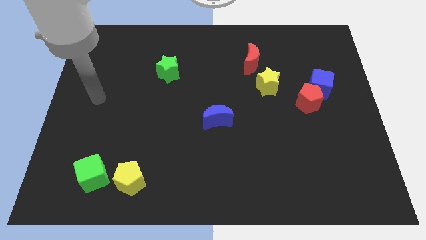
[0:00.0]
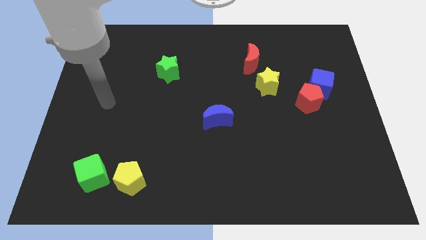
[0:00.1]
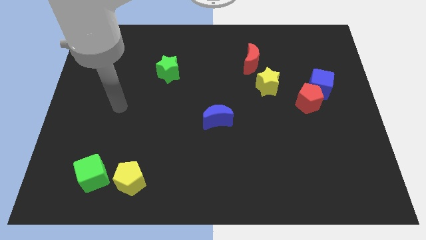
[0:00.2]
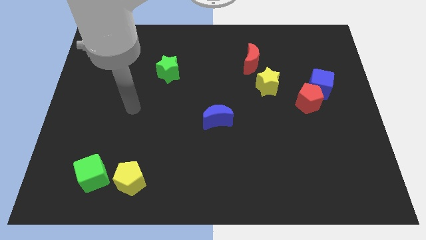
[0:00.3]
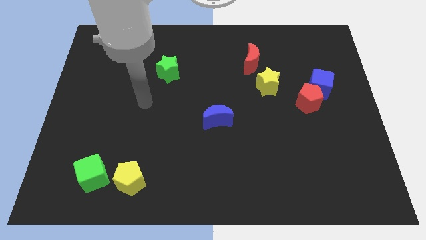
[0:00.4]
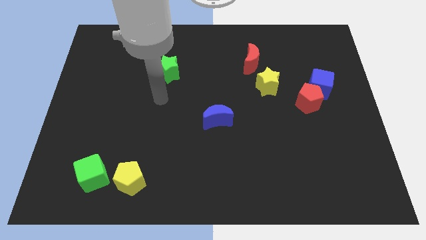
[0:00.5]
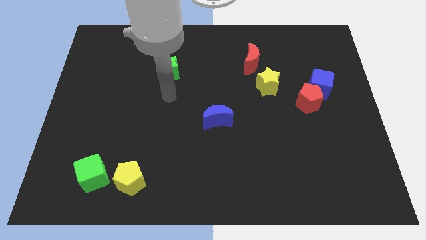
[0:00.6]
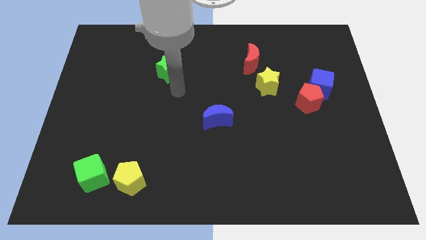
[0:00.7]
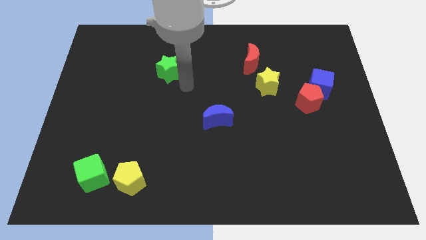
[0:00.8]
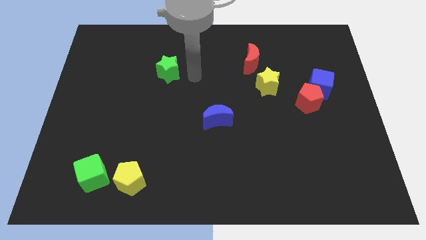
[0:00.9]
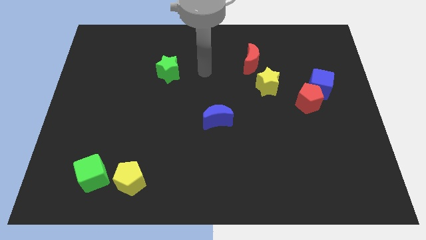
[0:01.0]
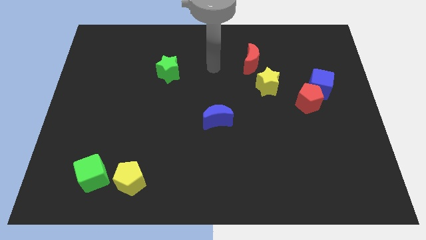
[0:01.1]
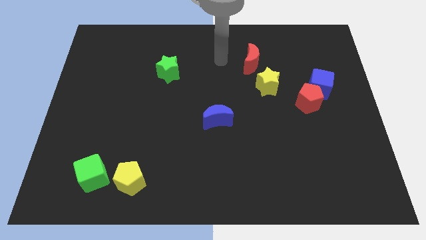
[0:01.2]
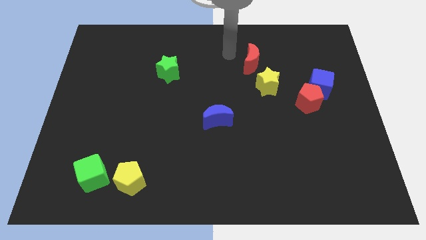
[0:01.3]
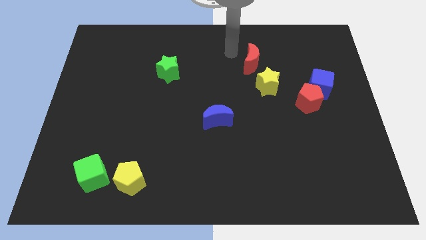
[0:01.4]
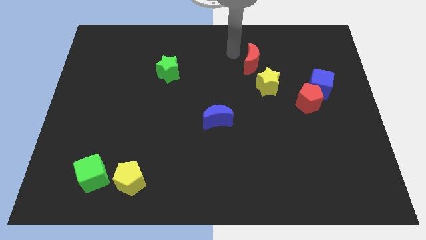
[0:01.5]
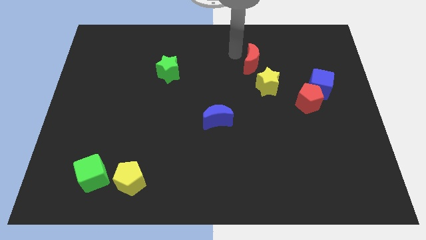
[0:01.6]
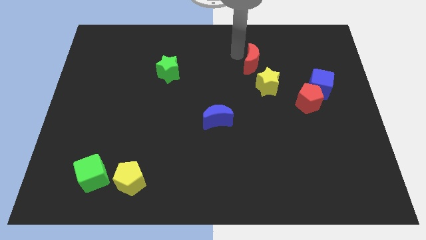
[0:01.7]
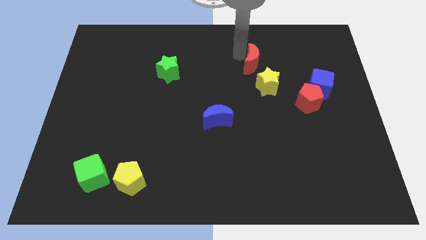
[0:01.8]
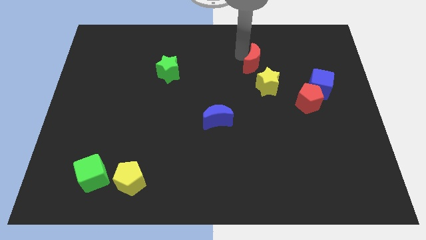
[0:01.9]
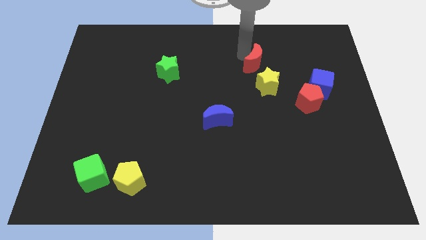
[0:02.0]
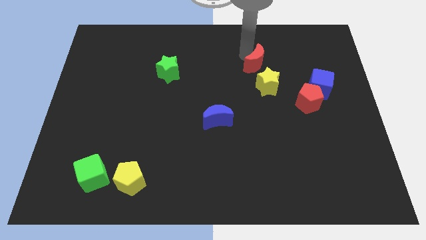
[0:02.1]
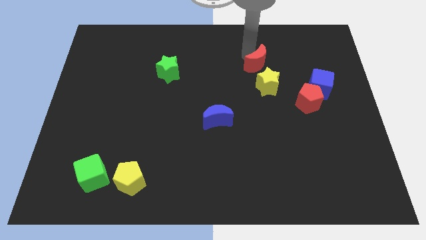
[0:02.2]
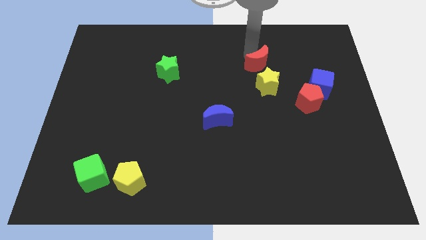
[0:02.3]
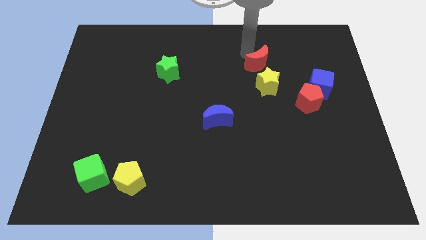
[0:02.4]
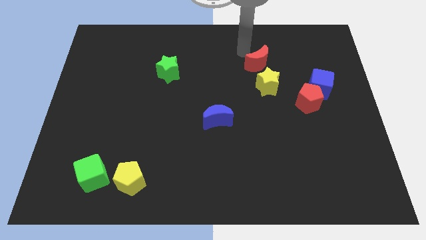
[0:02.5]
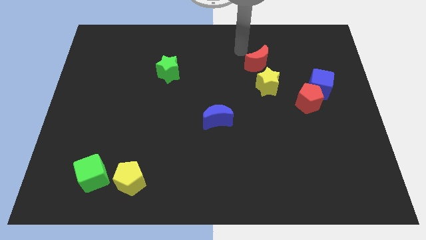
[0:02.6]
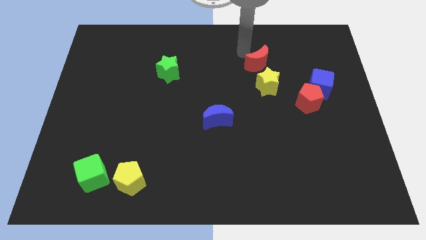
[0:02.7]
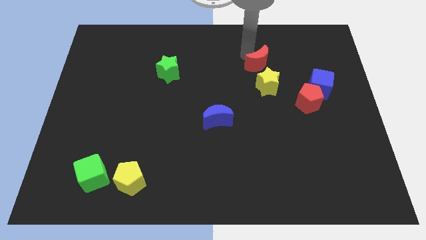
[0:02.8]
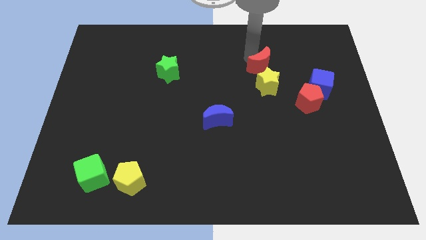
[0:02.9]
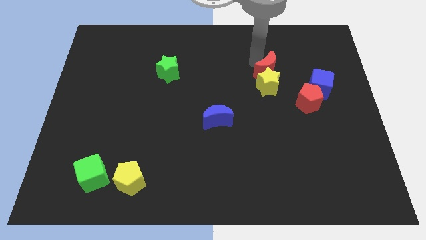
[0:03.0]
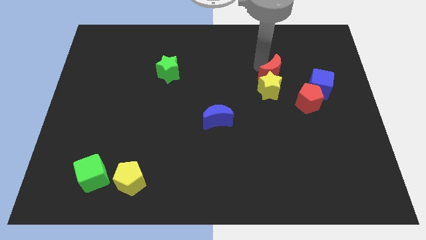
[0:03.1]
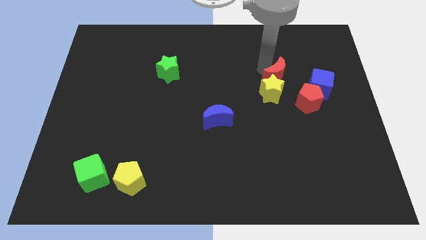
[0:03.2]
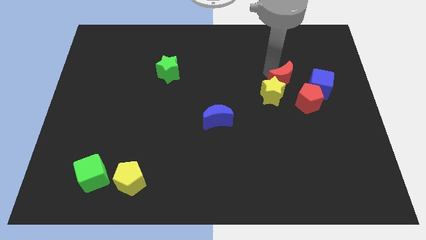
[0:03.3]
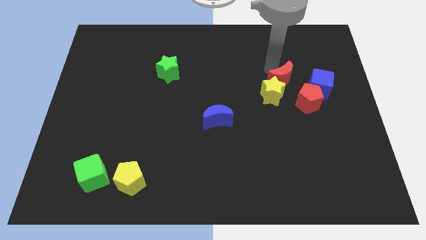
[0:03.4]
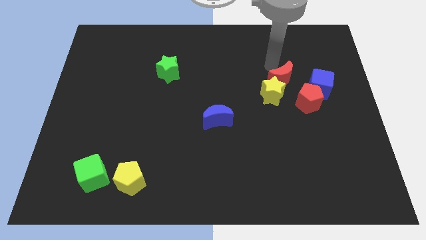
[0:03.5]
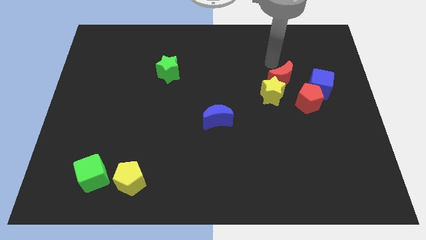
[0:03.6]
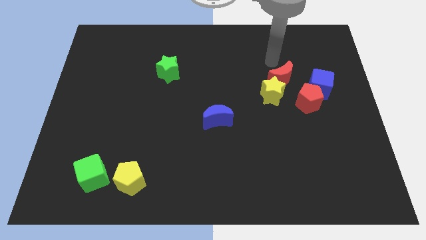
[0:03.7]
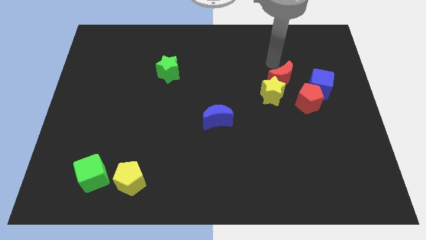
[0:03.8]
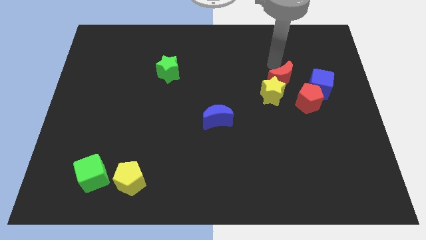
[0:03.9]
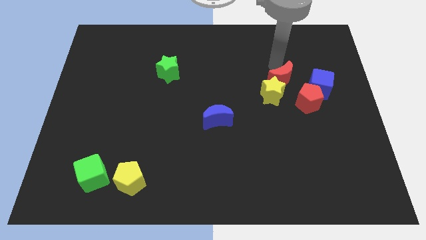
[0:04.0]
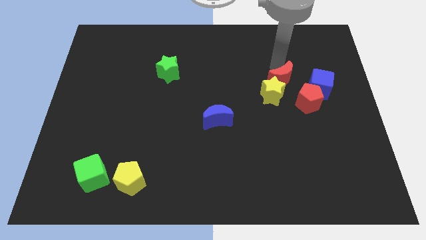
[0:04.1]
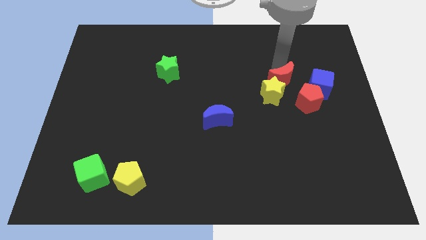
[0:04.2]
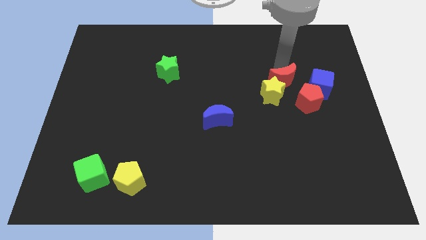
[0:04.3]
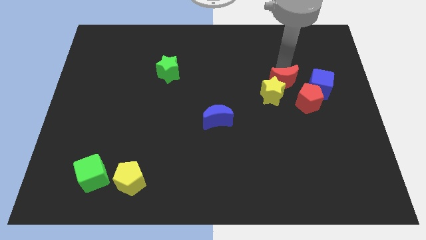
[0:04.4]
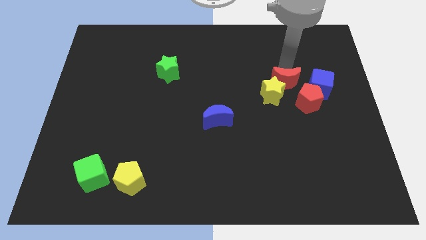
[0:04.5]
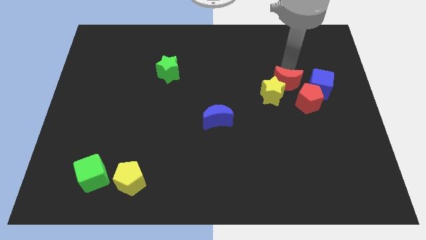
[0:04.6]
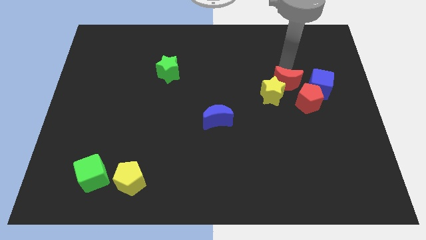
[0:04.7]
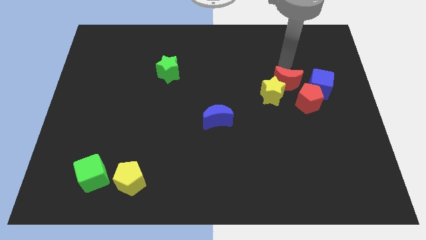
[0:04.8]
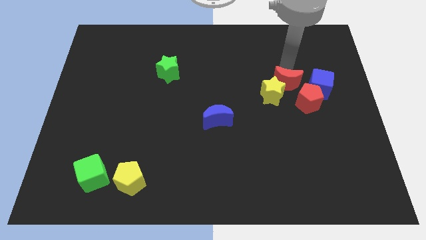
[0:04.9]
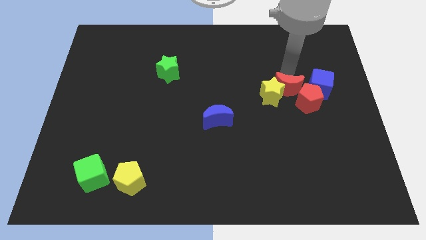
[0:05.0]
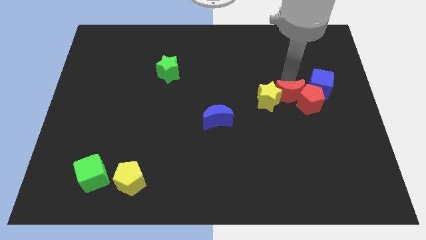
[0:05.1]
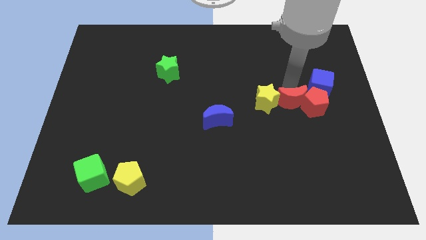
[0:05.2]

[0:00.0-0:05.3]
push the red moon diagonally down and to the left of the red pentagon

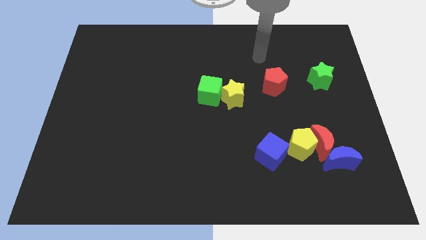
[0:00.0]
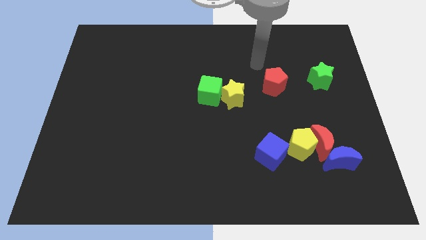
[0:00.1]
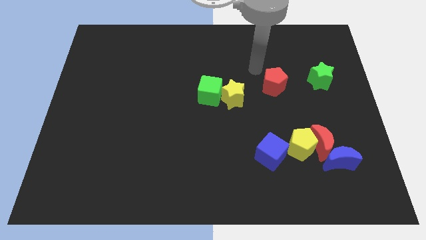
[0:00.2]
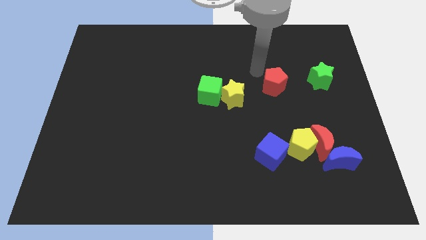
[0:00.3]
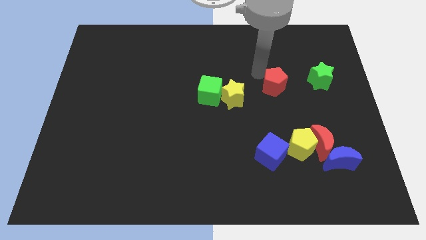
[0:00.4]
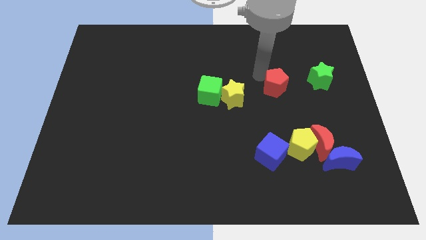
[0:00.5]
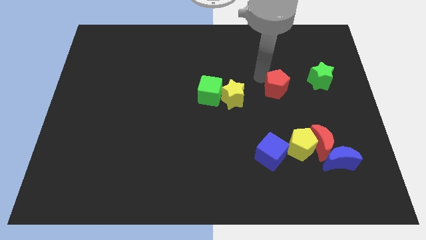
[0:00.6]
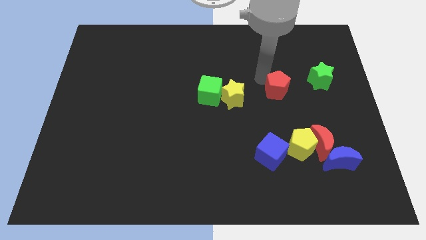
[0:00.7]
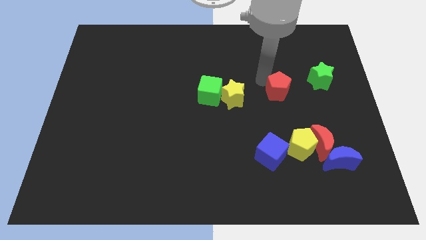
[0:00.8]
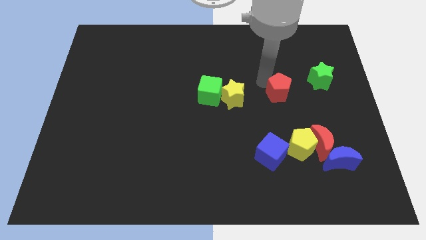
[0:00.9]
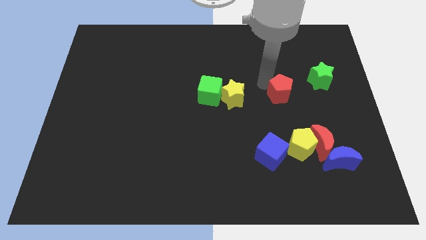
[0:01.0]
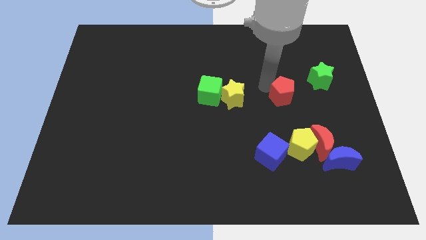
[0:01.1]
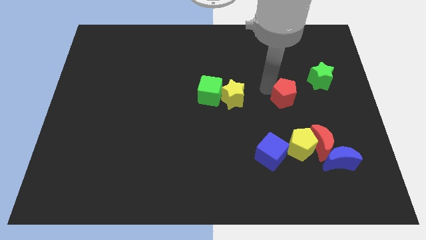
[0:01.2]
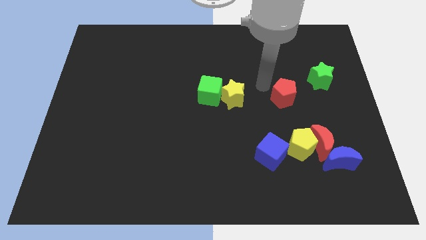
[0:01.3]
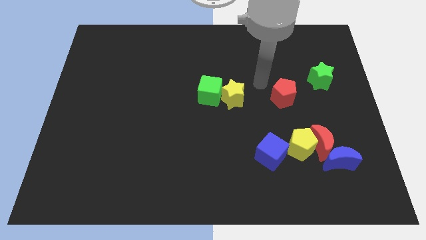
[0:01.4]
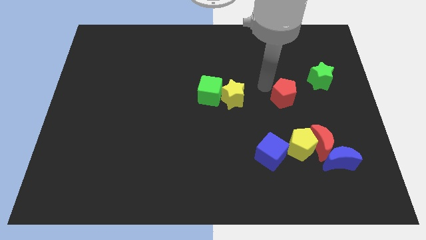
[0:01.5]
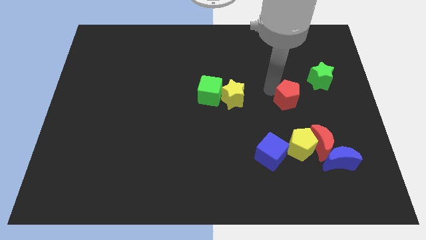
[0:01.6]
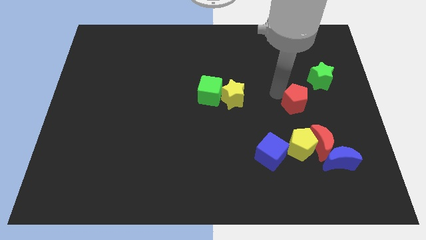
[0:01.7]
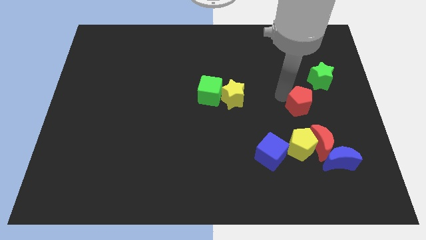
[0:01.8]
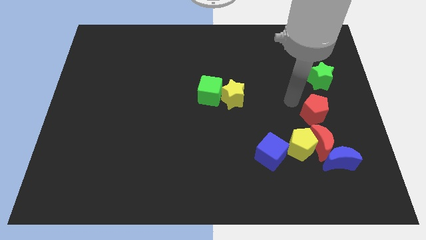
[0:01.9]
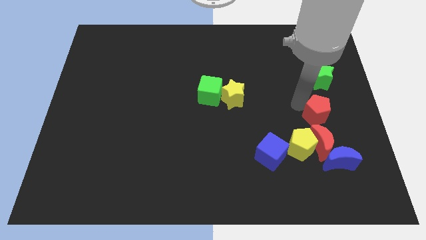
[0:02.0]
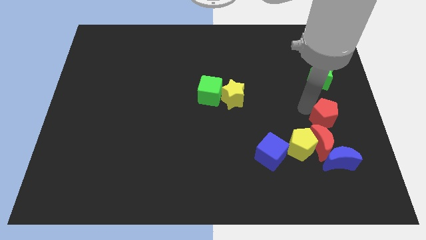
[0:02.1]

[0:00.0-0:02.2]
move the red pentagon diagonally up and to the right of the red moon

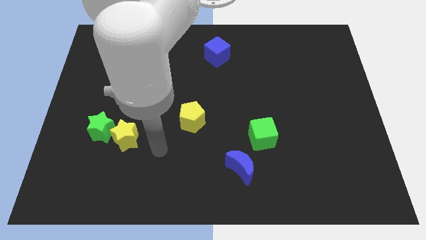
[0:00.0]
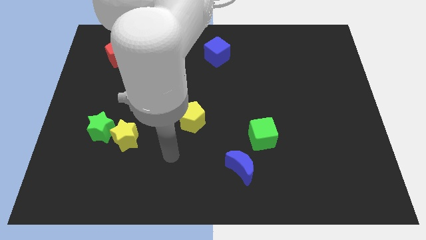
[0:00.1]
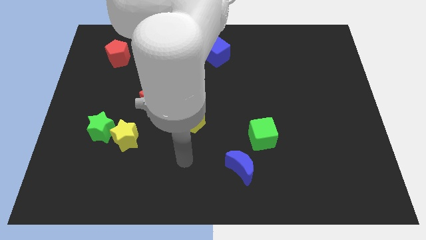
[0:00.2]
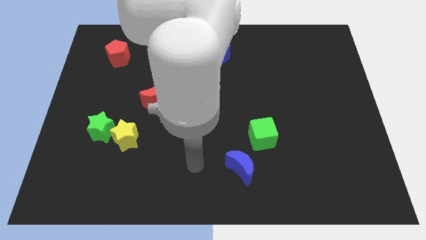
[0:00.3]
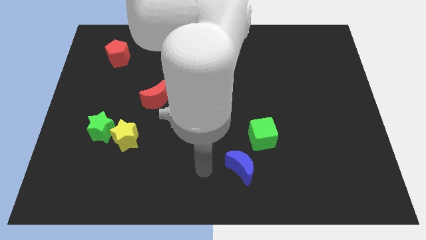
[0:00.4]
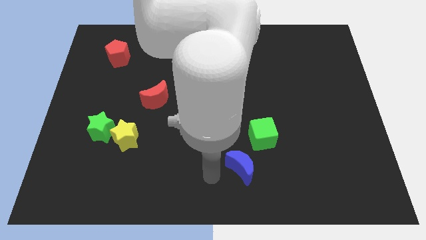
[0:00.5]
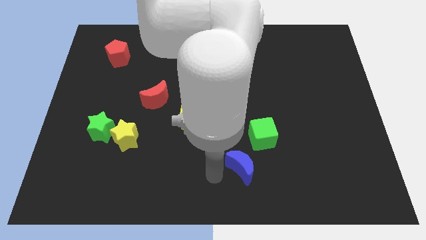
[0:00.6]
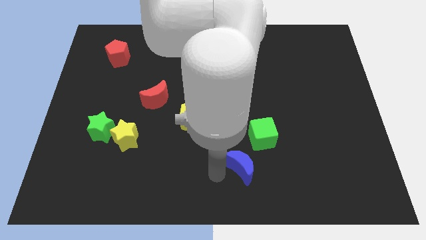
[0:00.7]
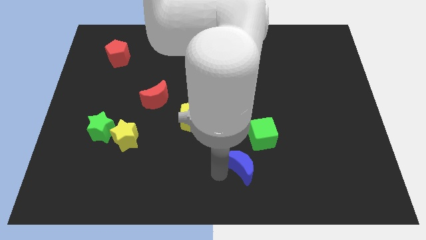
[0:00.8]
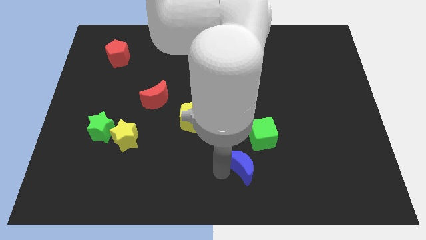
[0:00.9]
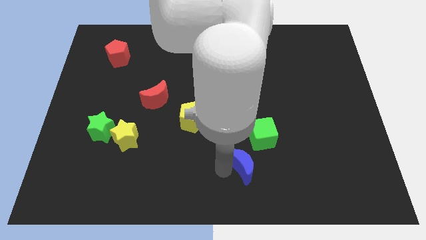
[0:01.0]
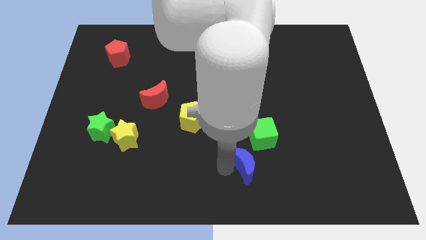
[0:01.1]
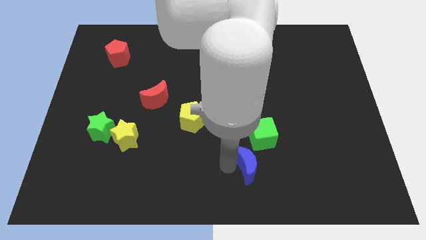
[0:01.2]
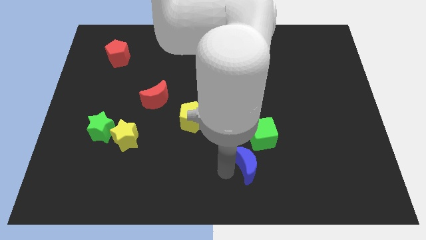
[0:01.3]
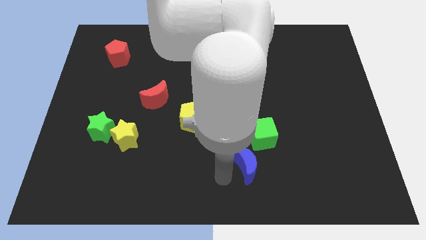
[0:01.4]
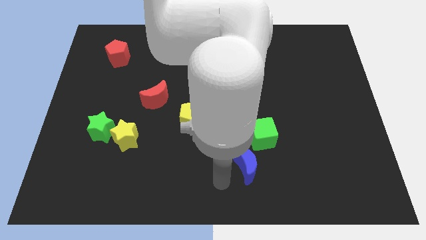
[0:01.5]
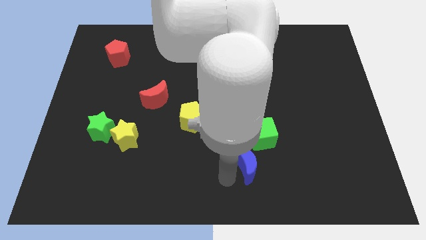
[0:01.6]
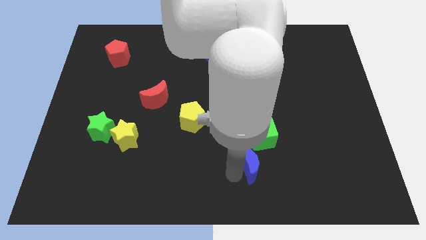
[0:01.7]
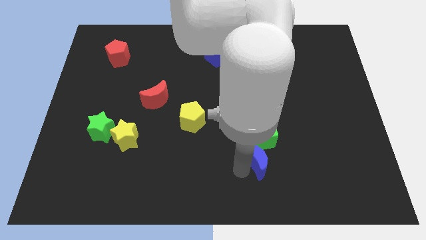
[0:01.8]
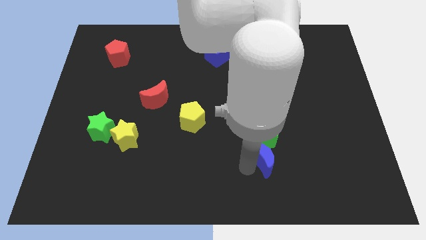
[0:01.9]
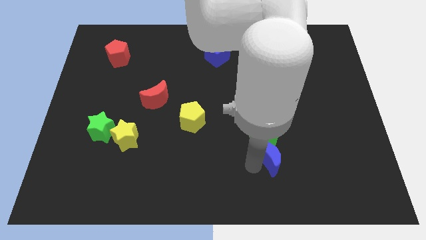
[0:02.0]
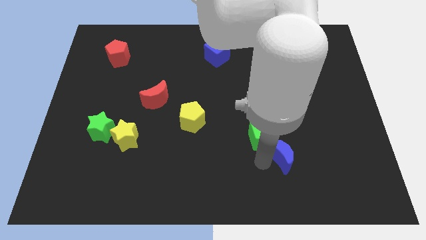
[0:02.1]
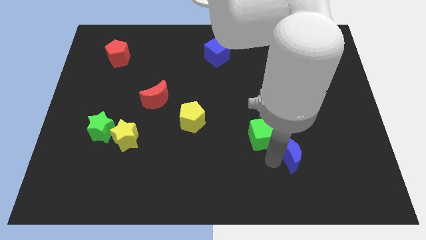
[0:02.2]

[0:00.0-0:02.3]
push the blue moon to the right of the green cube
